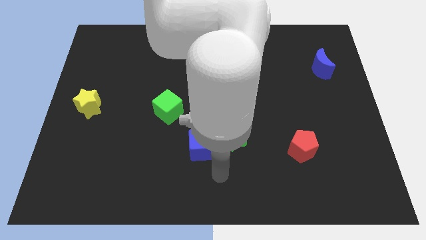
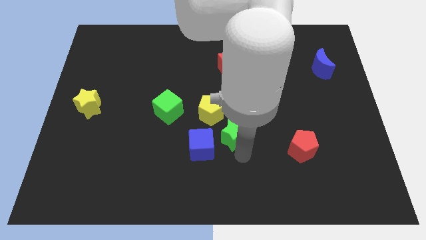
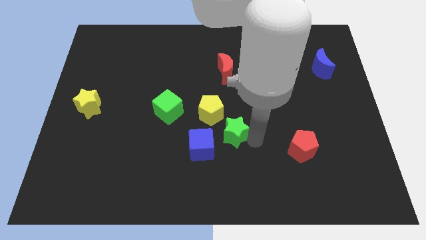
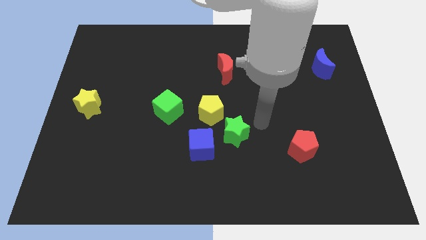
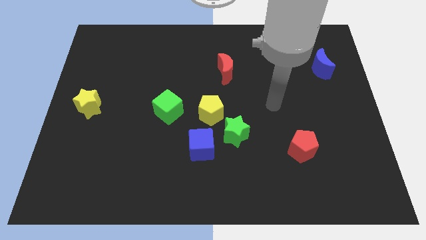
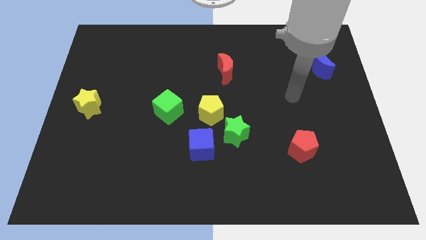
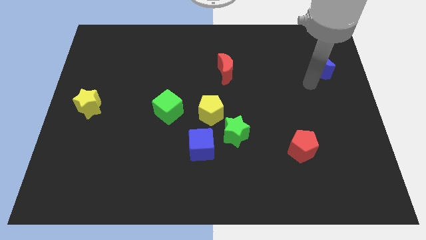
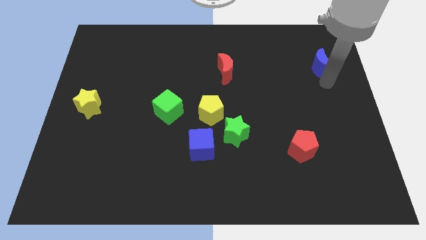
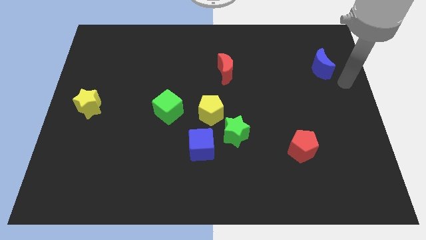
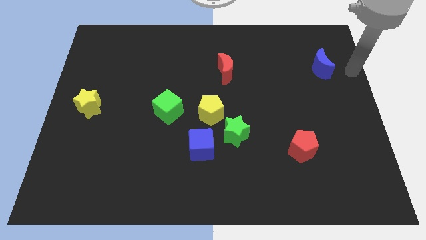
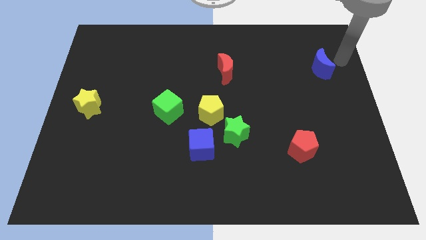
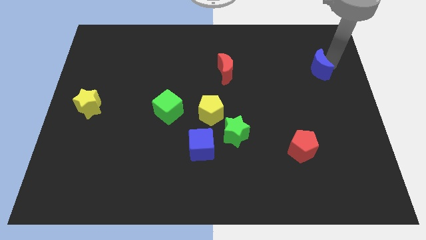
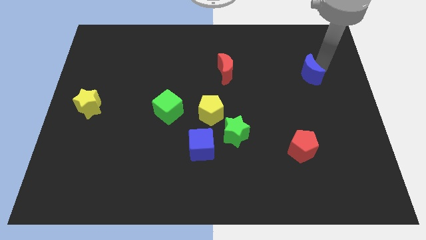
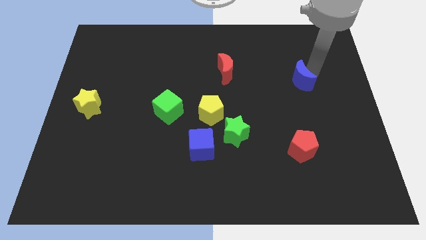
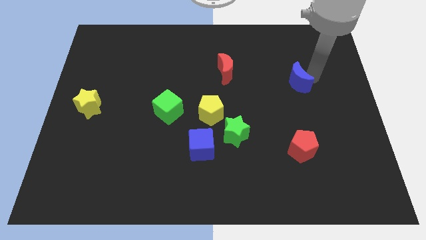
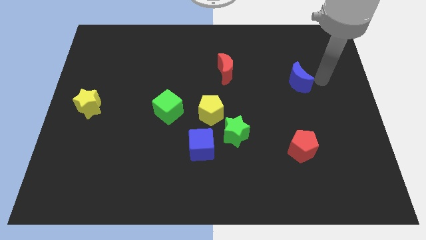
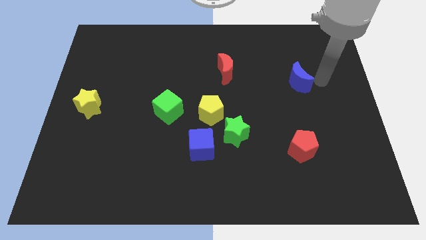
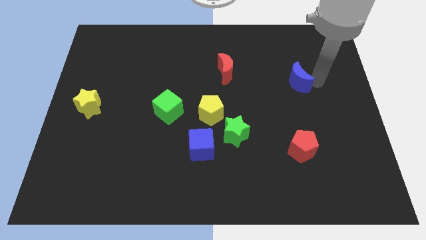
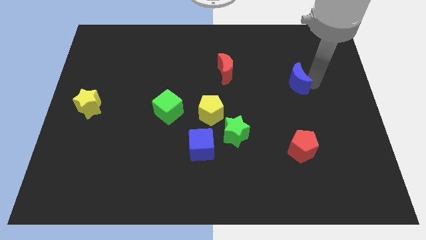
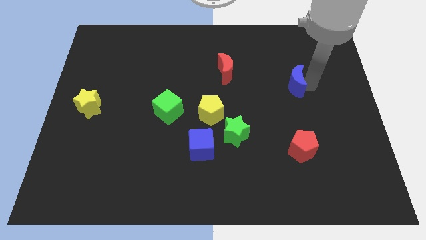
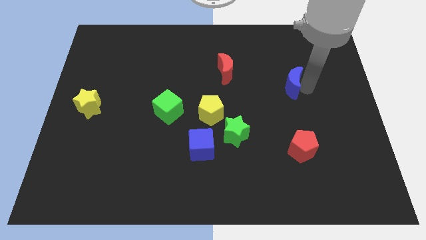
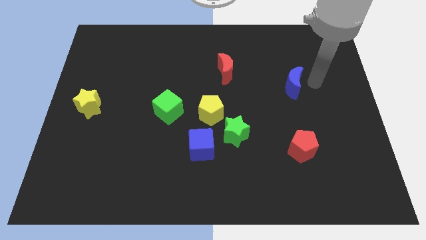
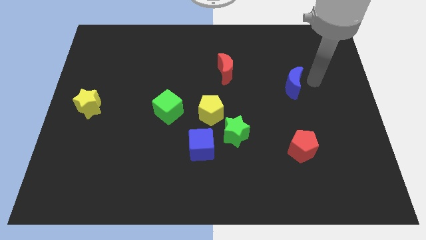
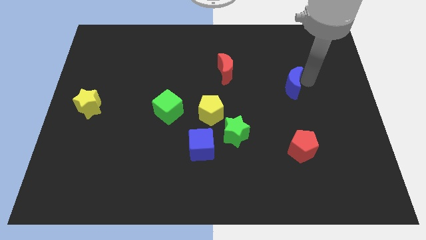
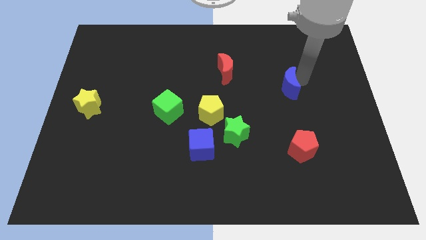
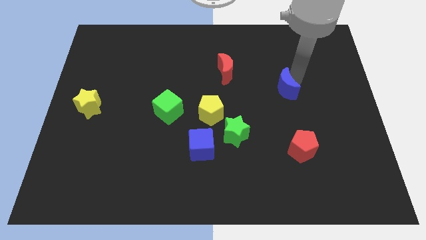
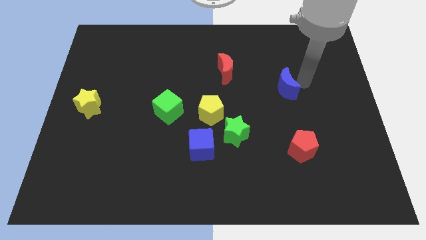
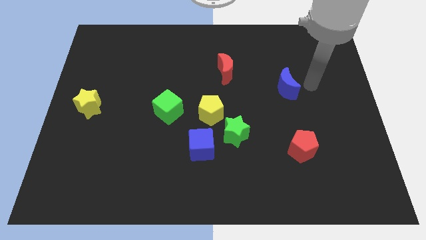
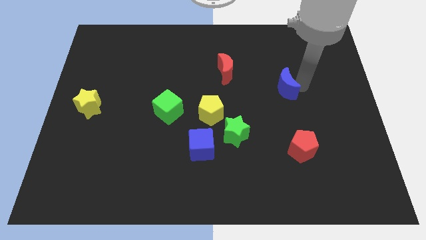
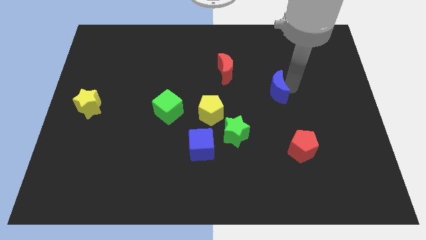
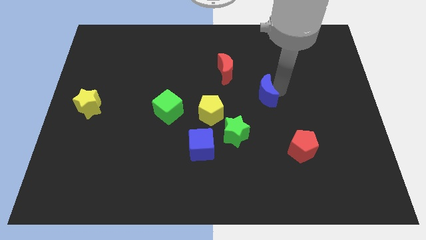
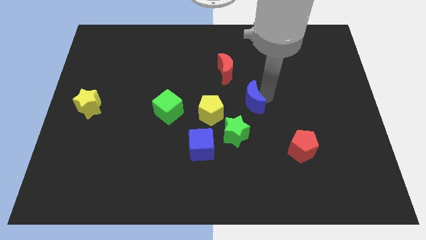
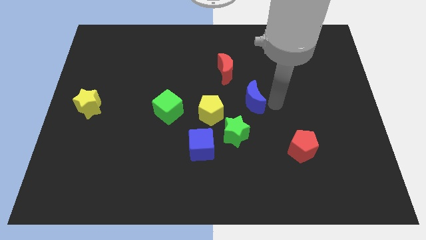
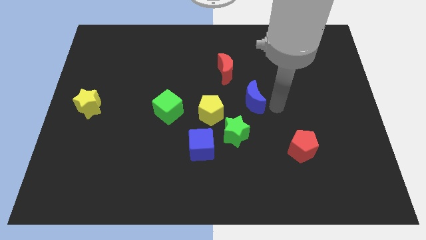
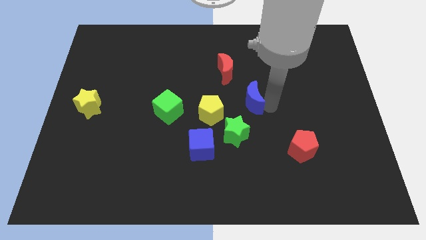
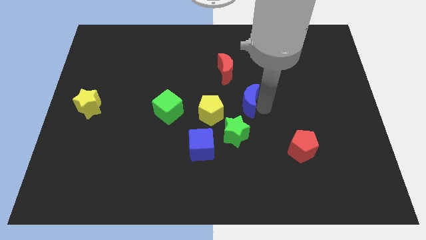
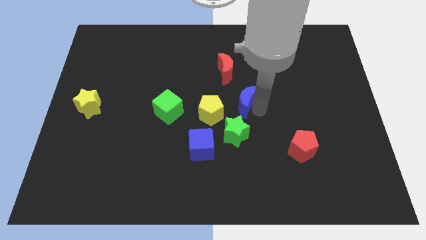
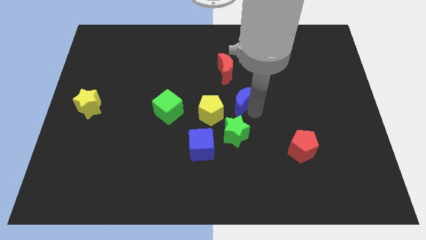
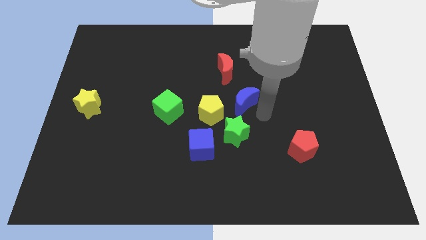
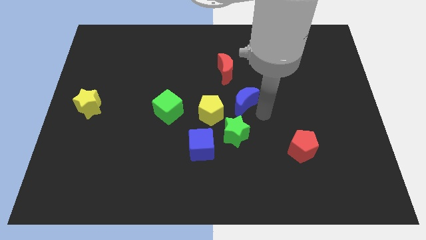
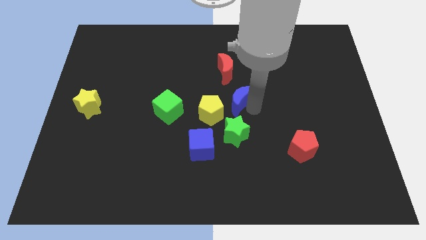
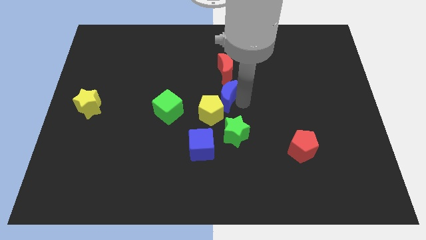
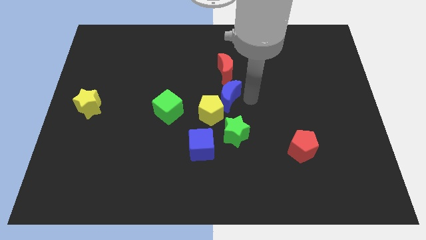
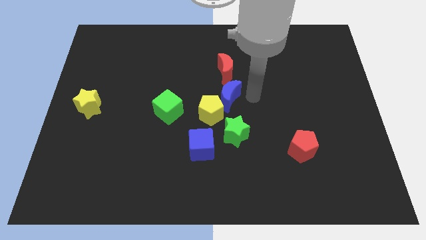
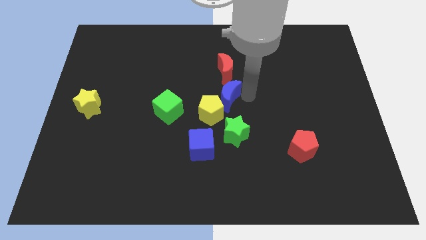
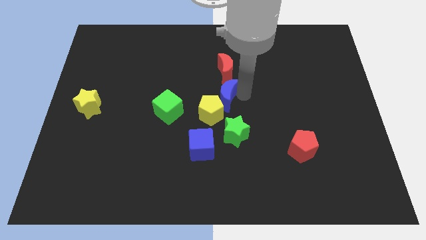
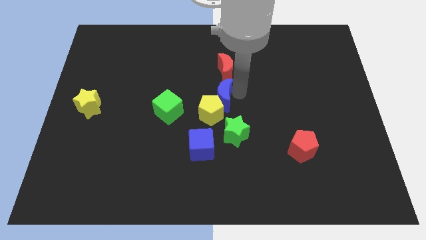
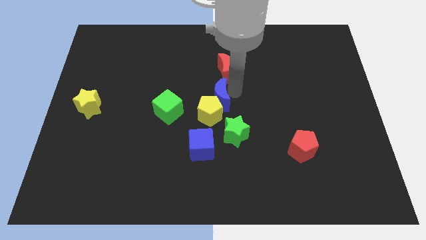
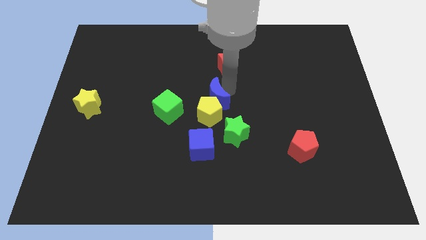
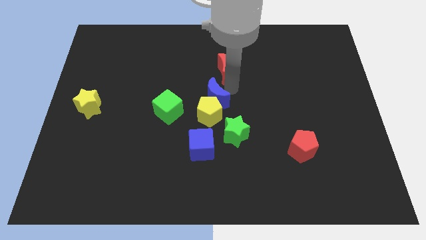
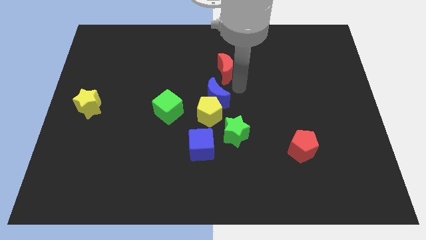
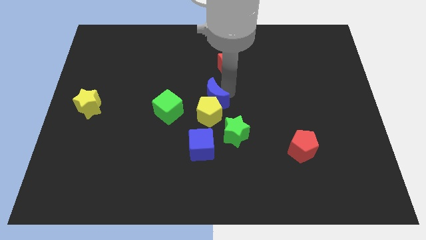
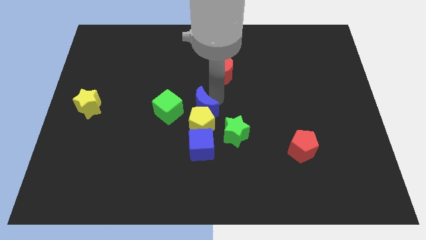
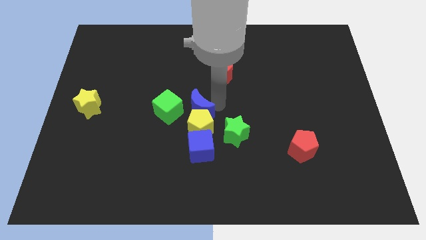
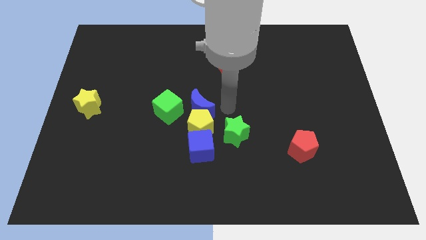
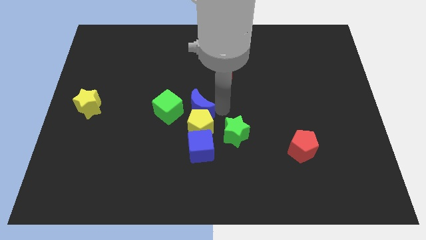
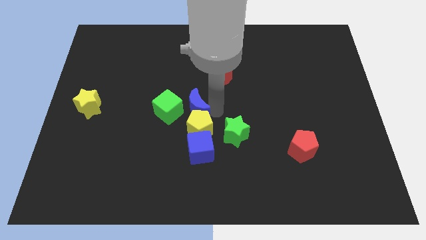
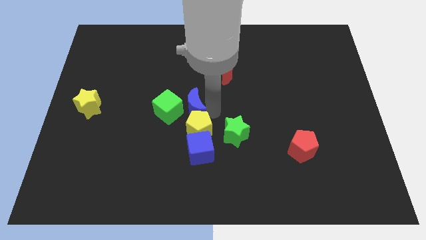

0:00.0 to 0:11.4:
put the blue moon towards the green cube

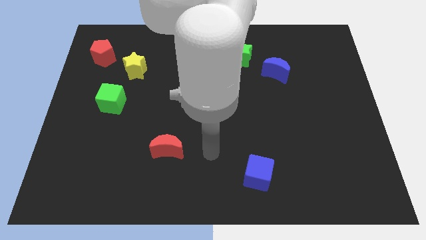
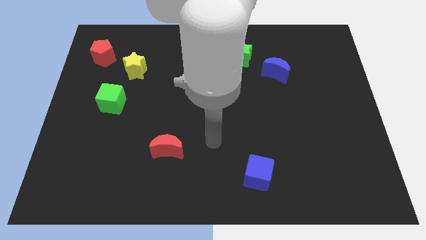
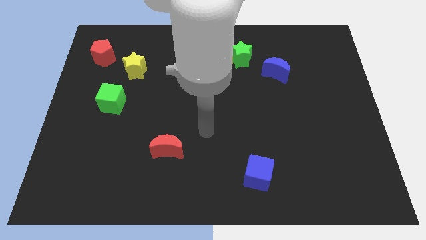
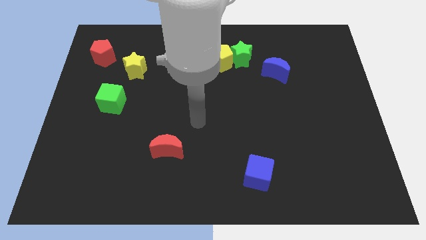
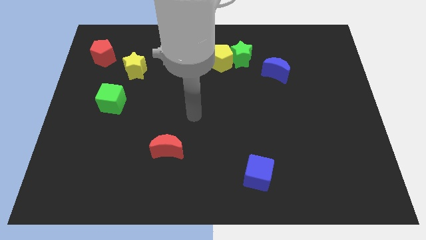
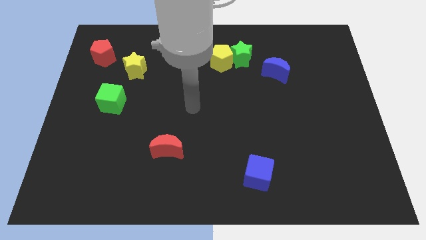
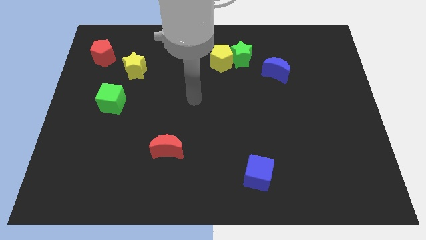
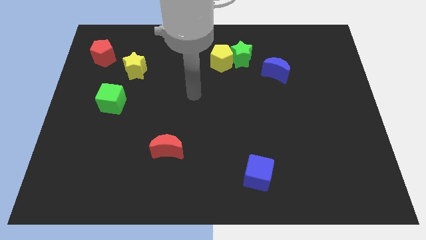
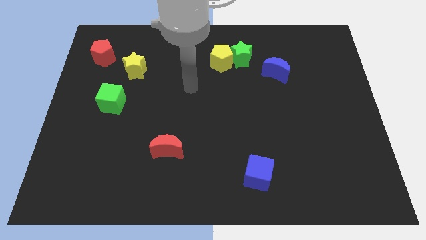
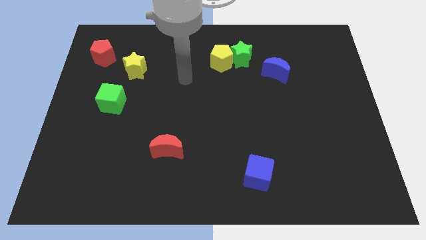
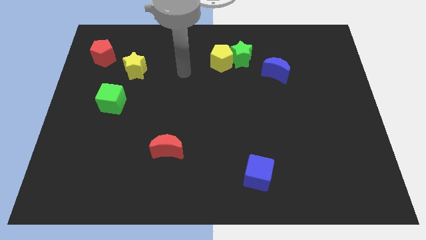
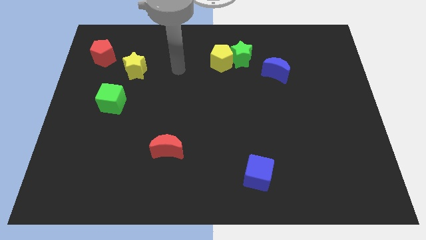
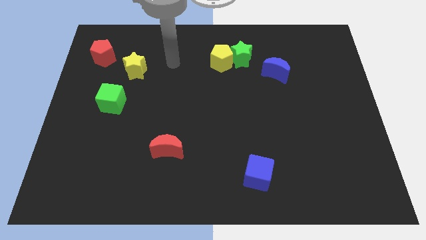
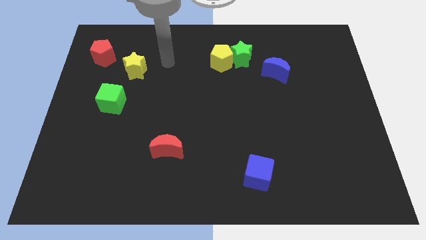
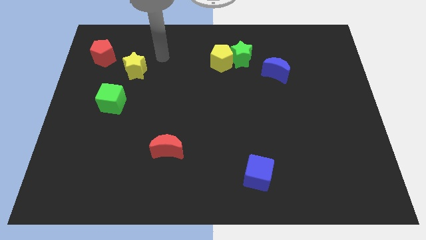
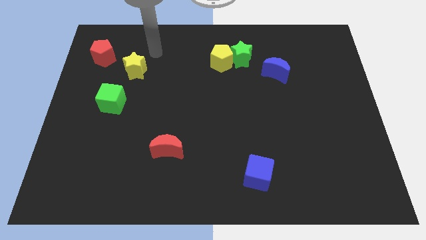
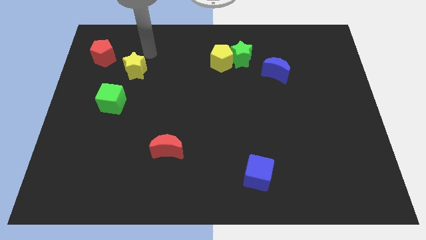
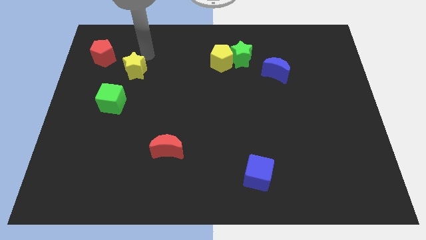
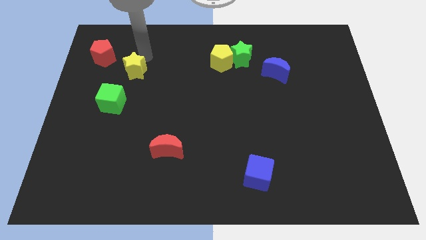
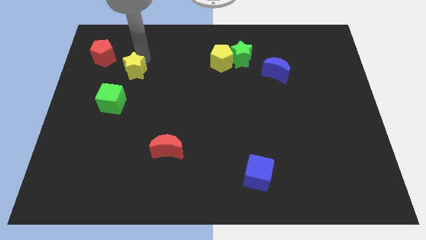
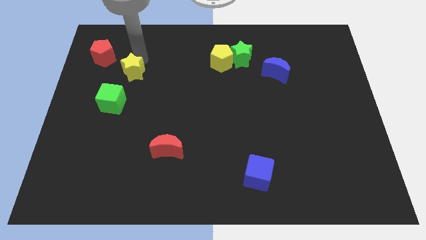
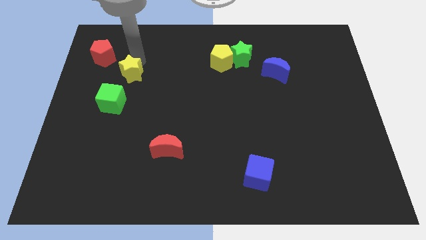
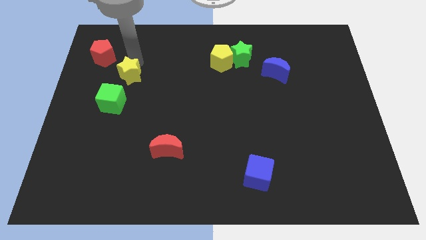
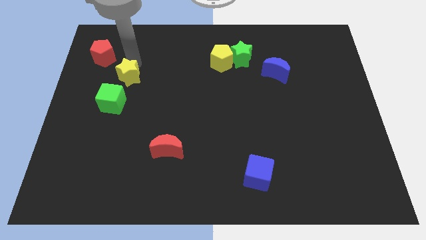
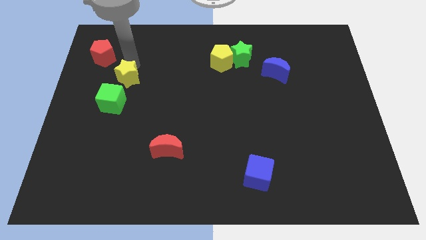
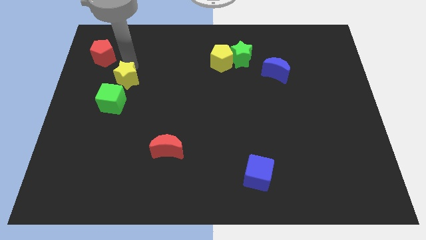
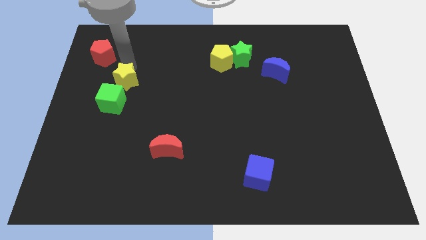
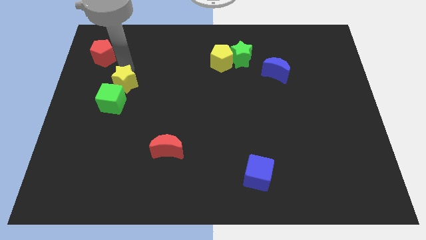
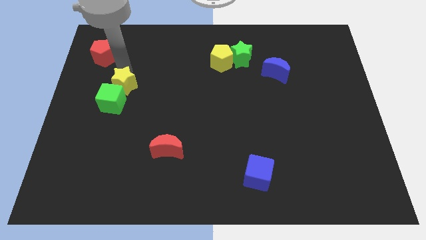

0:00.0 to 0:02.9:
push the yellow star next to the green cube
